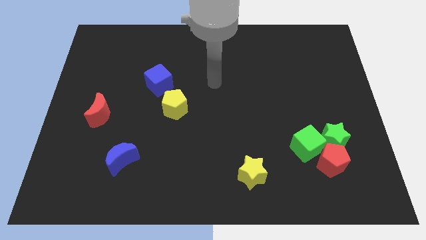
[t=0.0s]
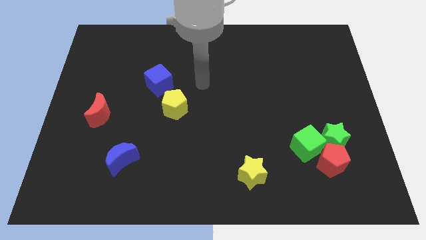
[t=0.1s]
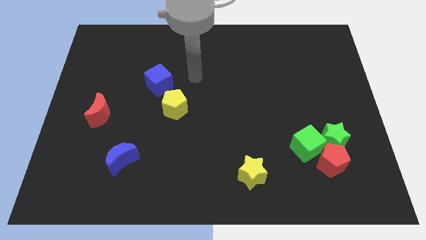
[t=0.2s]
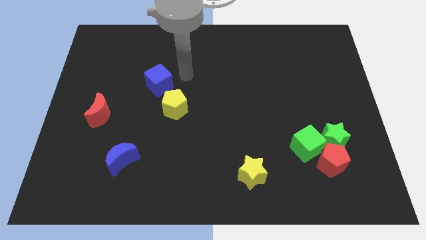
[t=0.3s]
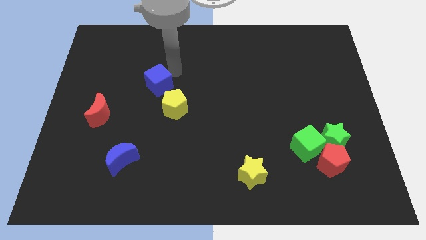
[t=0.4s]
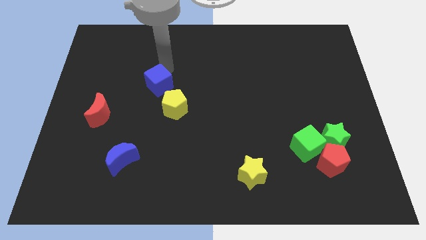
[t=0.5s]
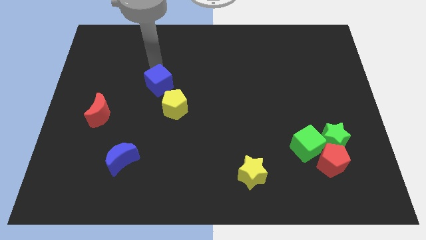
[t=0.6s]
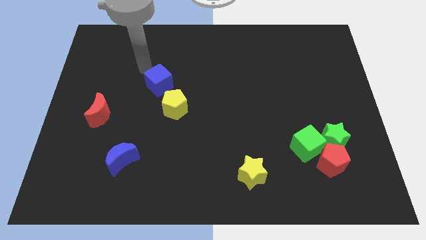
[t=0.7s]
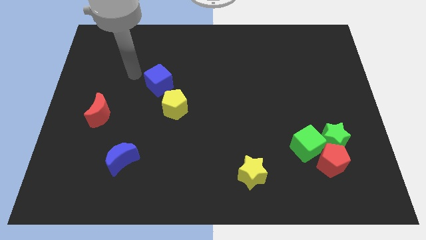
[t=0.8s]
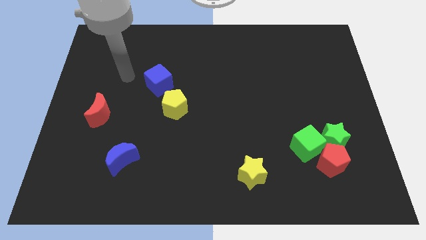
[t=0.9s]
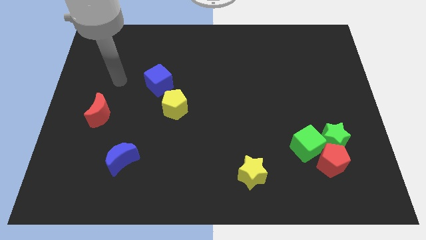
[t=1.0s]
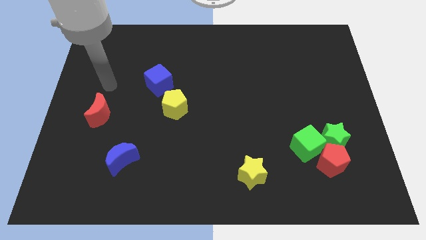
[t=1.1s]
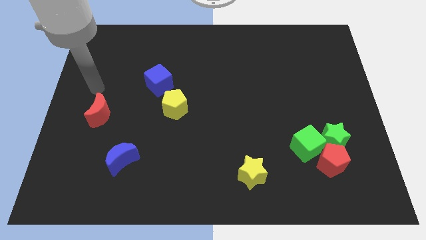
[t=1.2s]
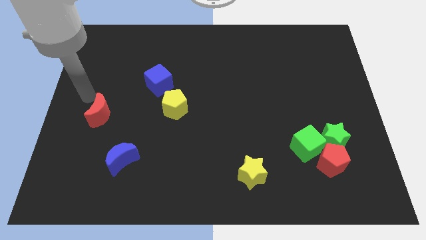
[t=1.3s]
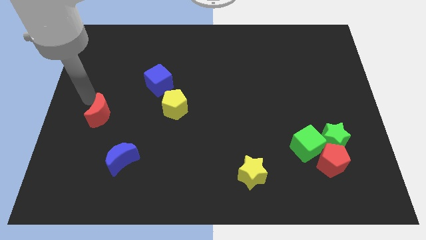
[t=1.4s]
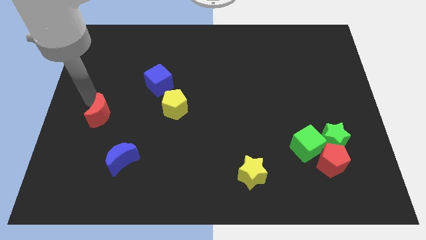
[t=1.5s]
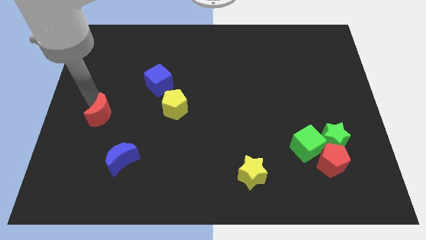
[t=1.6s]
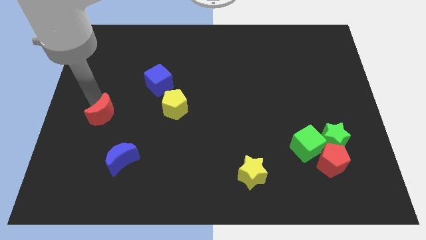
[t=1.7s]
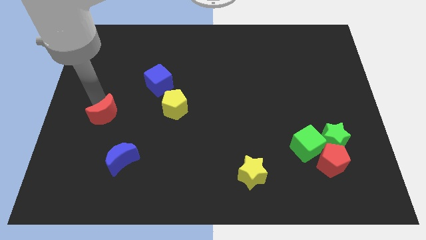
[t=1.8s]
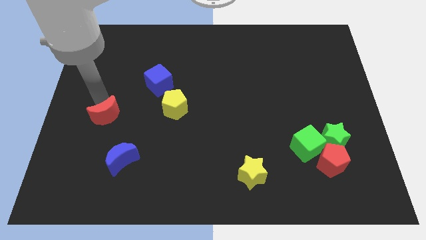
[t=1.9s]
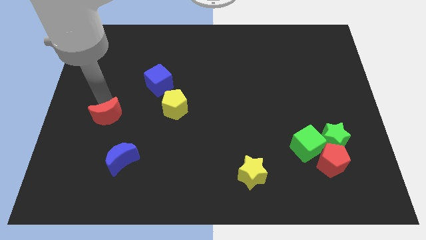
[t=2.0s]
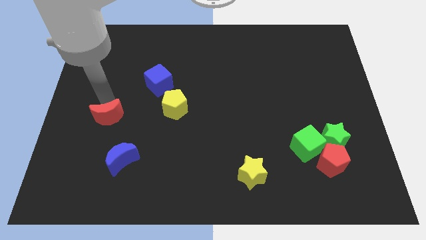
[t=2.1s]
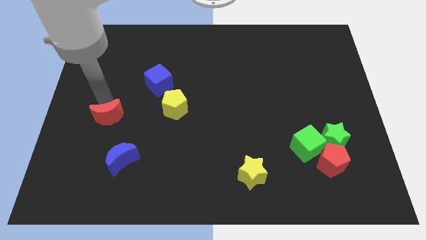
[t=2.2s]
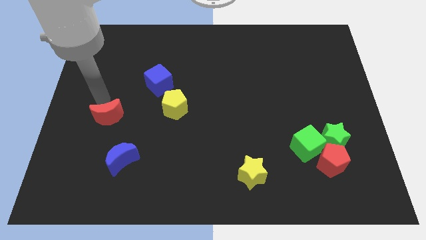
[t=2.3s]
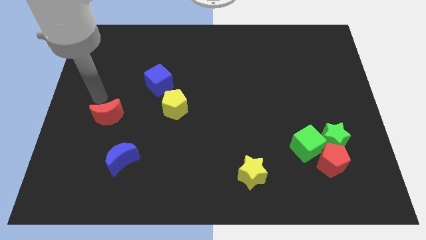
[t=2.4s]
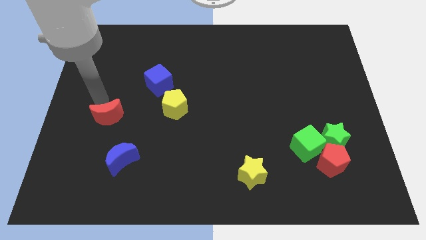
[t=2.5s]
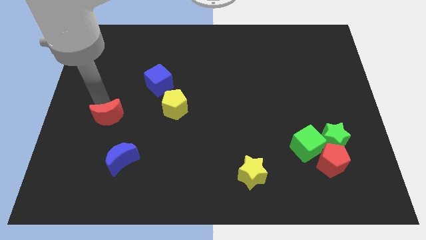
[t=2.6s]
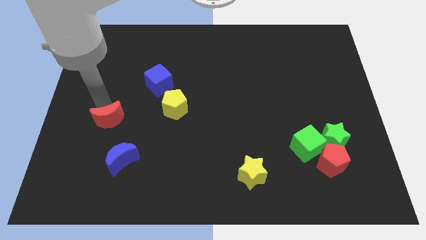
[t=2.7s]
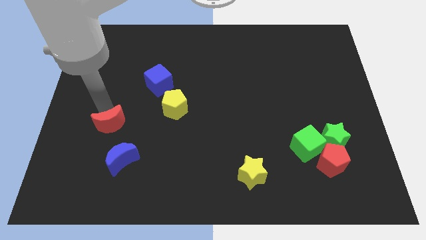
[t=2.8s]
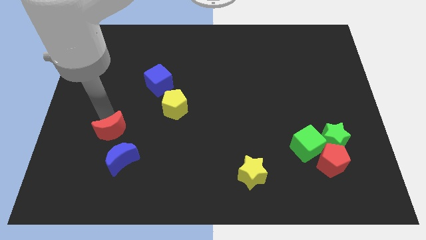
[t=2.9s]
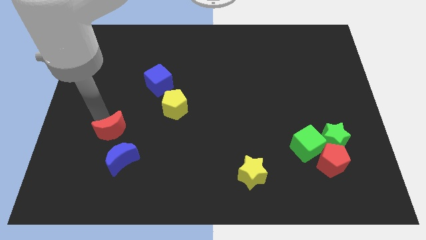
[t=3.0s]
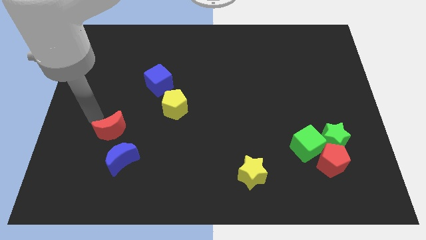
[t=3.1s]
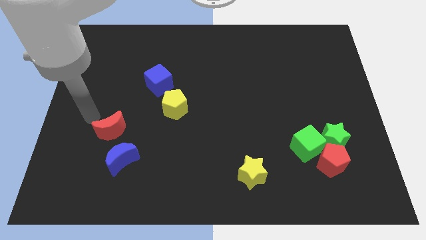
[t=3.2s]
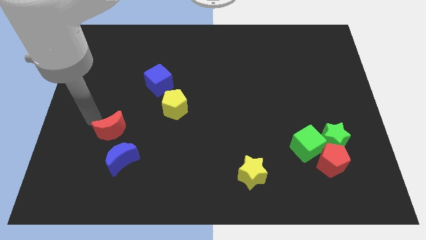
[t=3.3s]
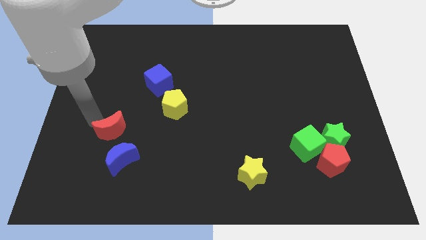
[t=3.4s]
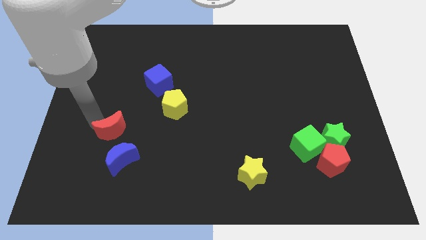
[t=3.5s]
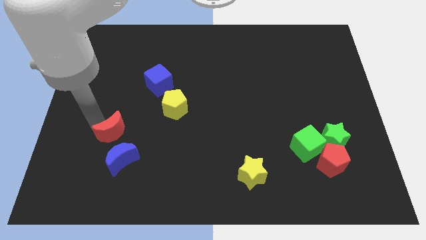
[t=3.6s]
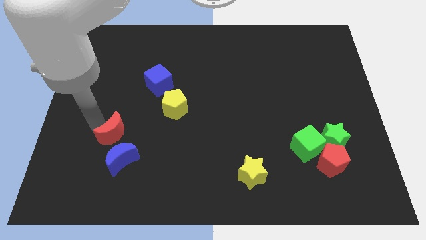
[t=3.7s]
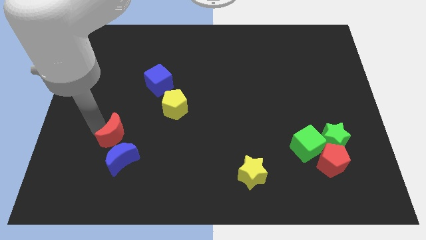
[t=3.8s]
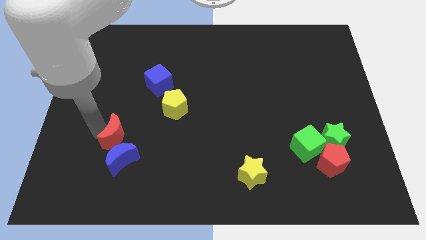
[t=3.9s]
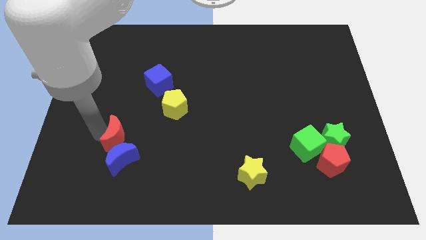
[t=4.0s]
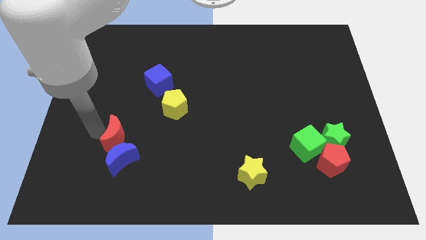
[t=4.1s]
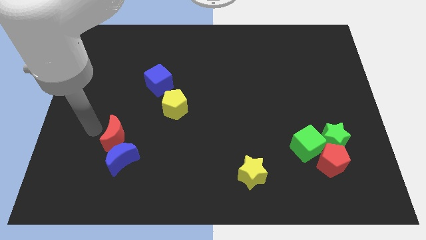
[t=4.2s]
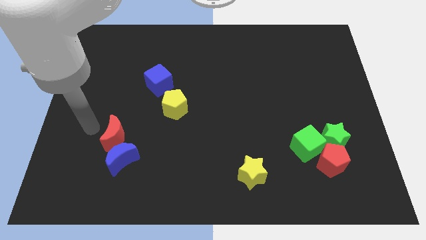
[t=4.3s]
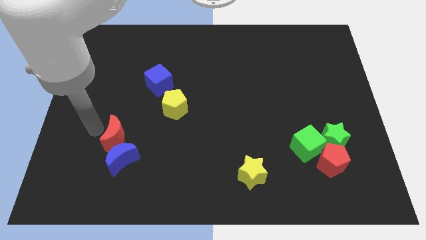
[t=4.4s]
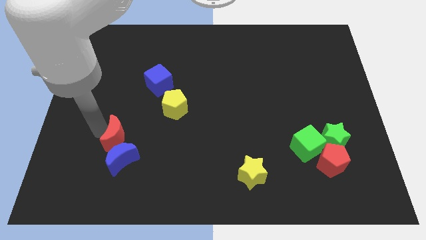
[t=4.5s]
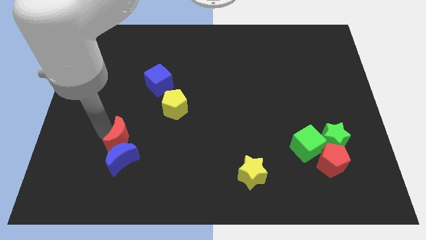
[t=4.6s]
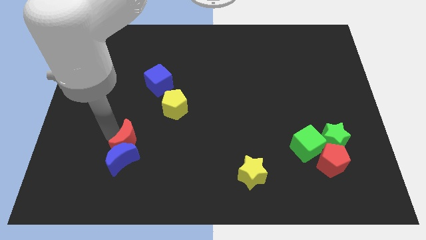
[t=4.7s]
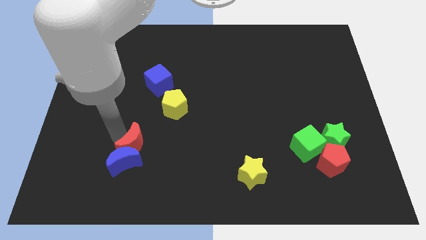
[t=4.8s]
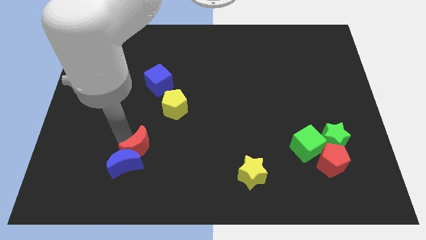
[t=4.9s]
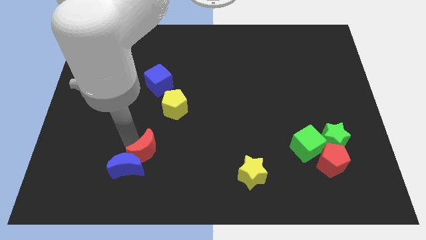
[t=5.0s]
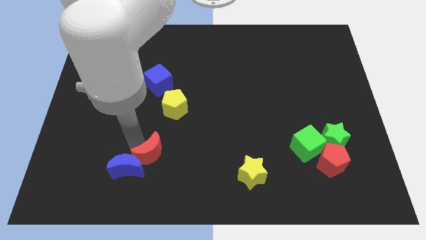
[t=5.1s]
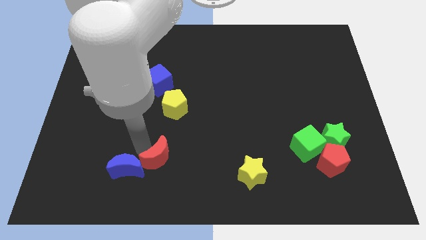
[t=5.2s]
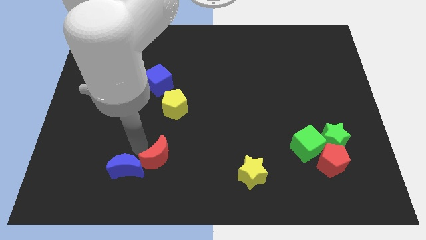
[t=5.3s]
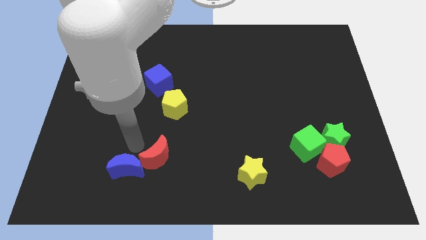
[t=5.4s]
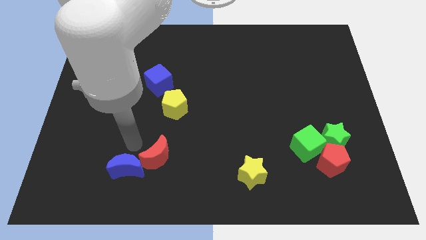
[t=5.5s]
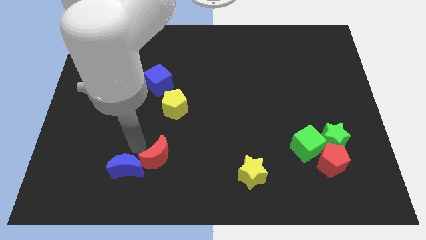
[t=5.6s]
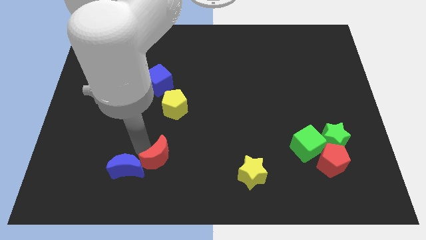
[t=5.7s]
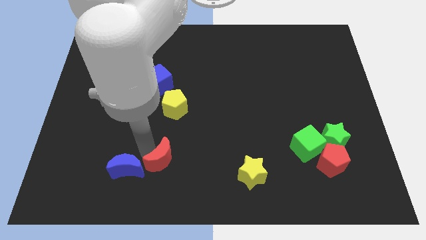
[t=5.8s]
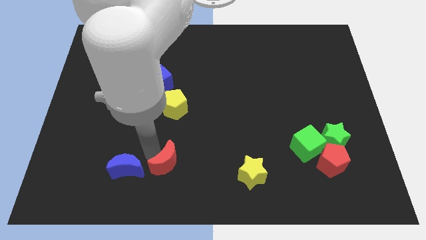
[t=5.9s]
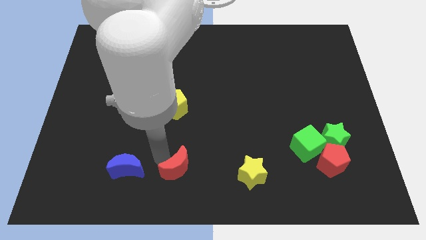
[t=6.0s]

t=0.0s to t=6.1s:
slide the red moon to the bottom
